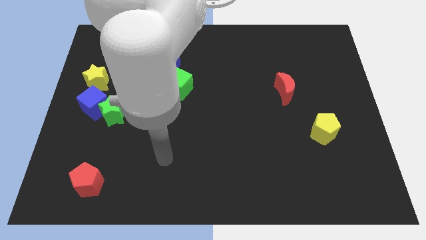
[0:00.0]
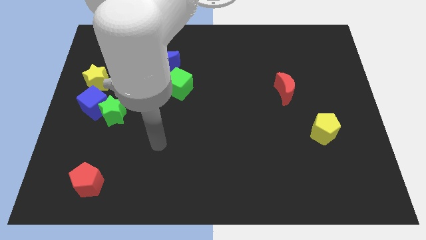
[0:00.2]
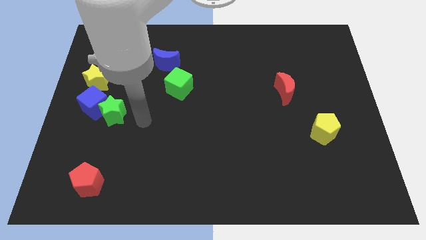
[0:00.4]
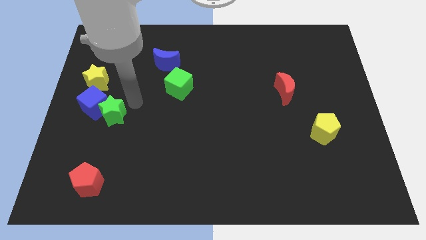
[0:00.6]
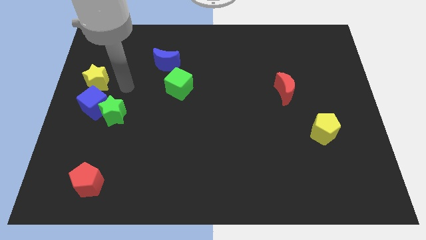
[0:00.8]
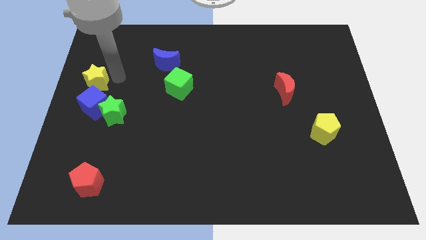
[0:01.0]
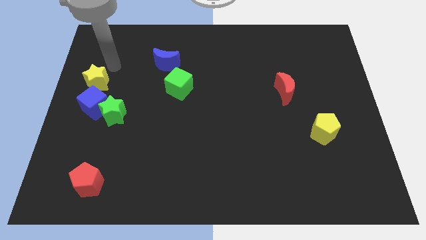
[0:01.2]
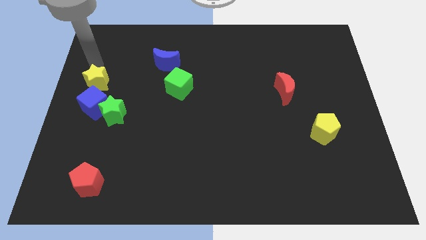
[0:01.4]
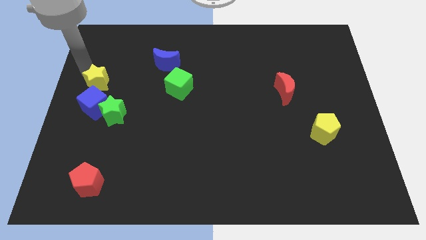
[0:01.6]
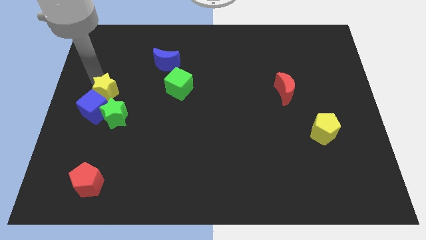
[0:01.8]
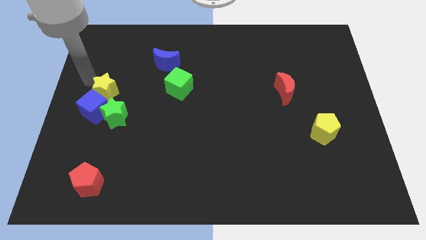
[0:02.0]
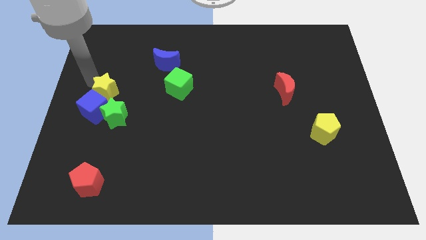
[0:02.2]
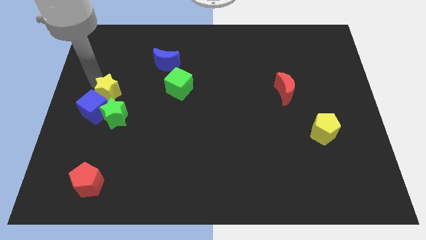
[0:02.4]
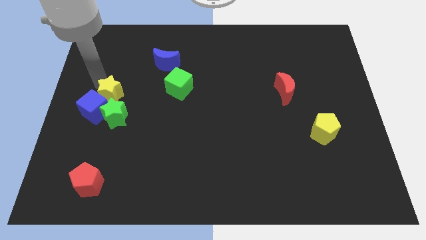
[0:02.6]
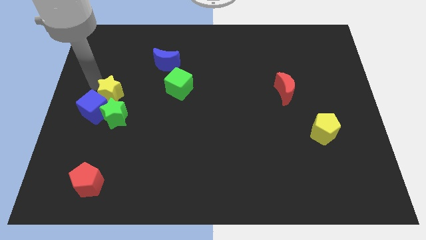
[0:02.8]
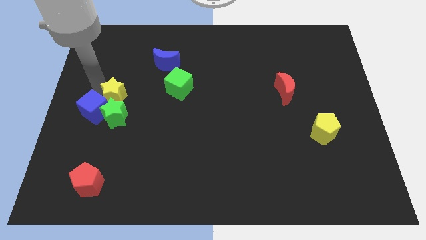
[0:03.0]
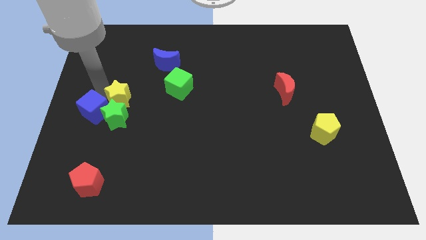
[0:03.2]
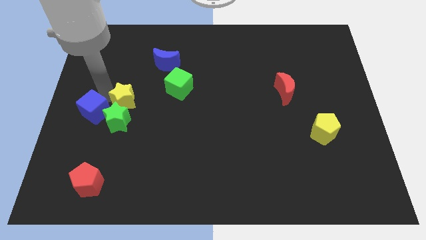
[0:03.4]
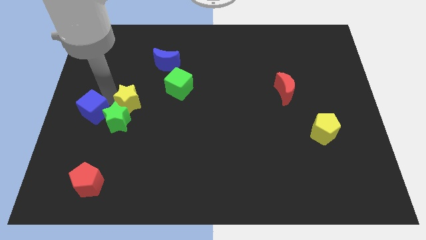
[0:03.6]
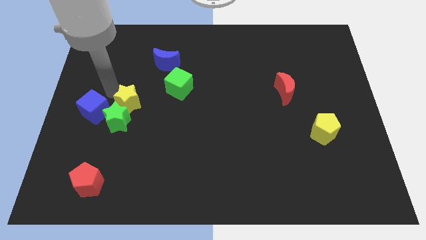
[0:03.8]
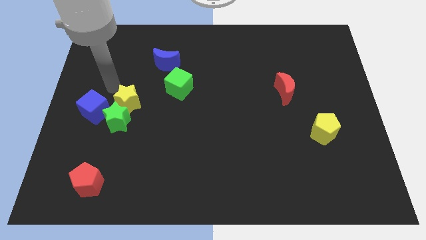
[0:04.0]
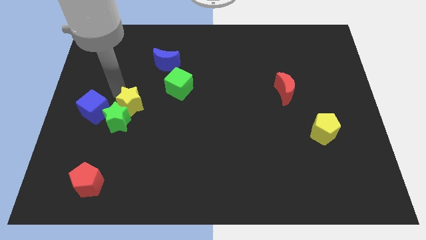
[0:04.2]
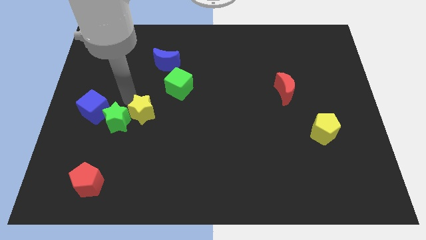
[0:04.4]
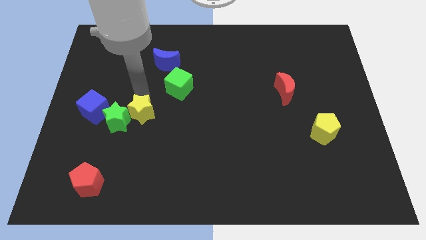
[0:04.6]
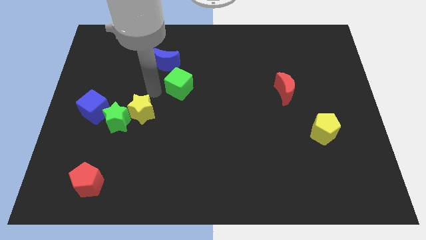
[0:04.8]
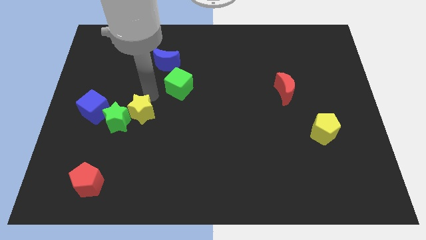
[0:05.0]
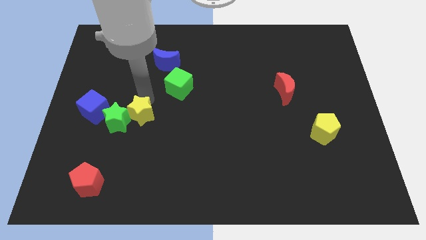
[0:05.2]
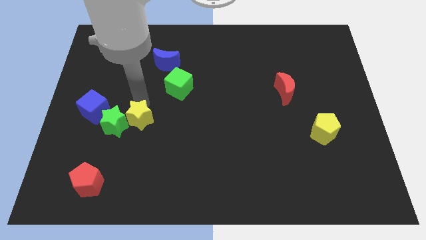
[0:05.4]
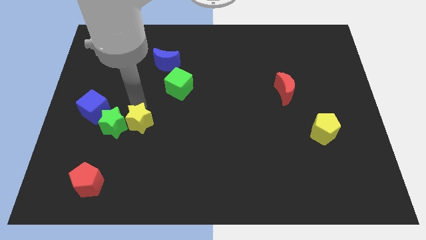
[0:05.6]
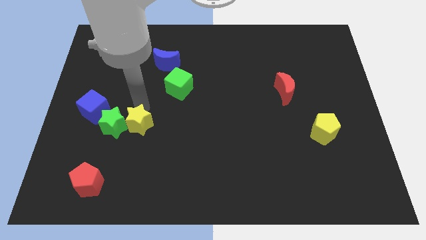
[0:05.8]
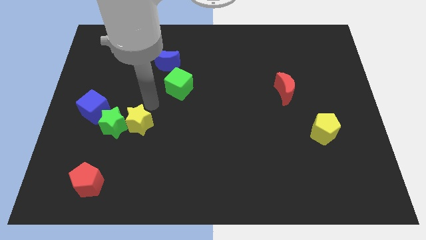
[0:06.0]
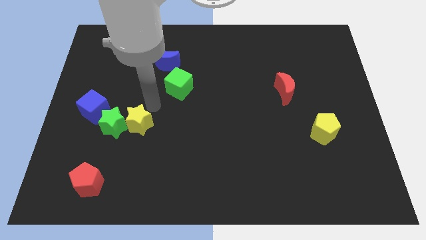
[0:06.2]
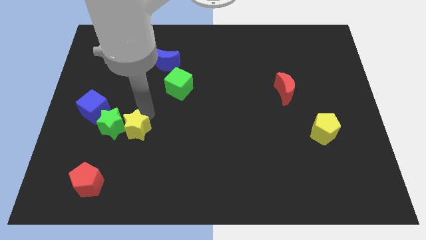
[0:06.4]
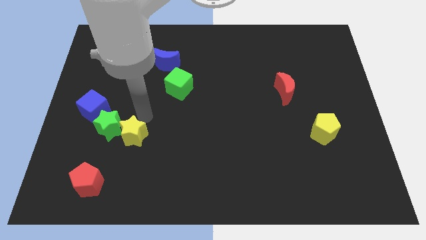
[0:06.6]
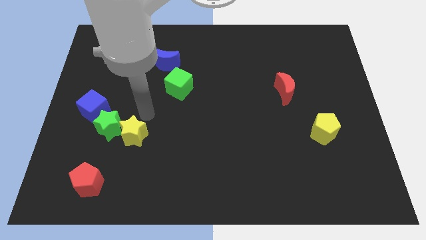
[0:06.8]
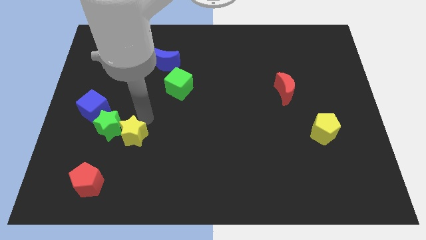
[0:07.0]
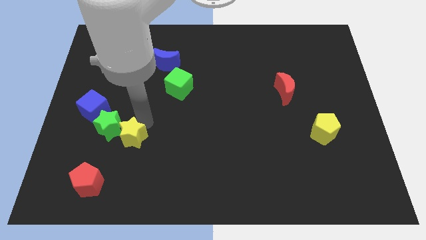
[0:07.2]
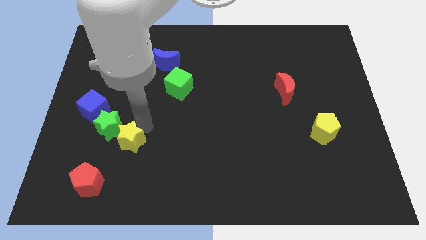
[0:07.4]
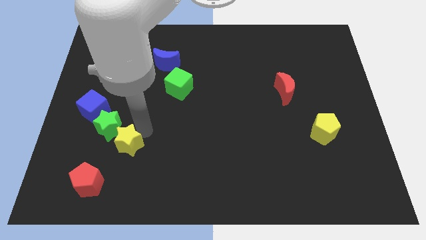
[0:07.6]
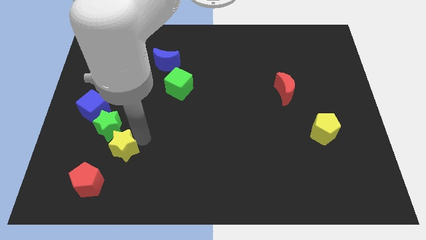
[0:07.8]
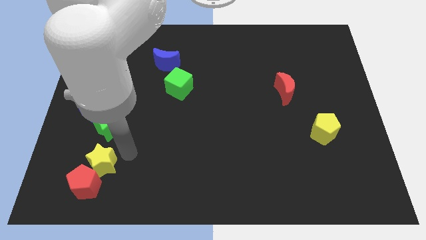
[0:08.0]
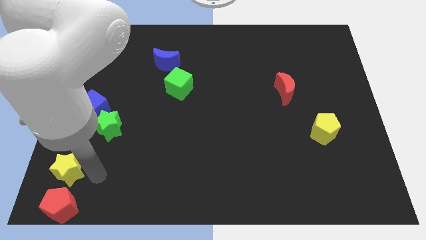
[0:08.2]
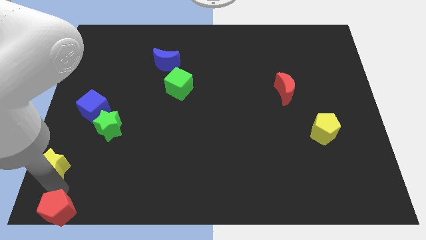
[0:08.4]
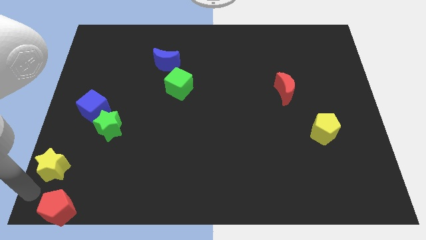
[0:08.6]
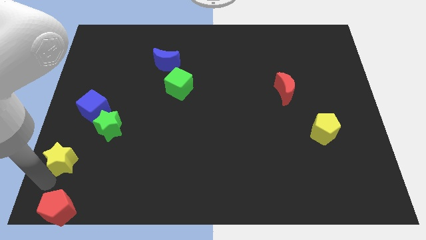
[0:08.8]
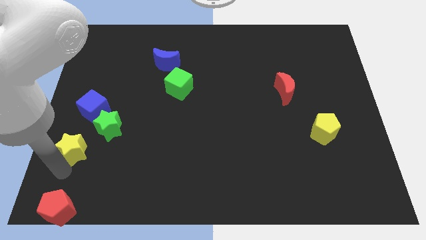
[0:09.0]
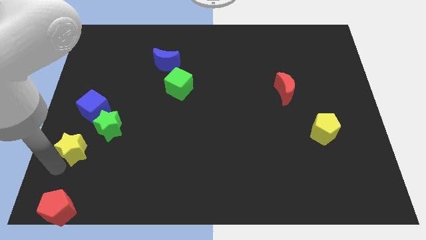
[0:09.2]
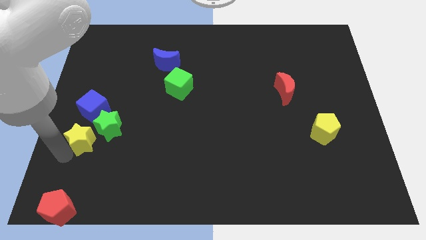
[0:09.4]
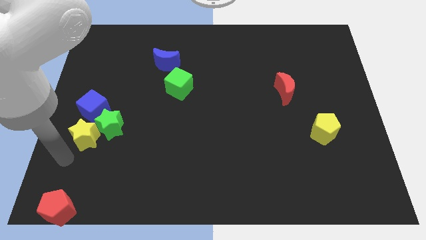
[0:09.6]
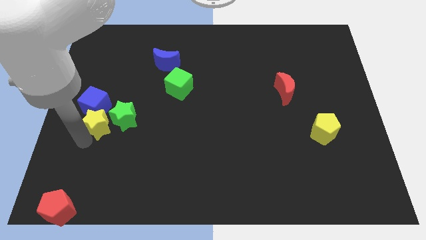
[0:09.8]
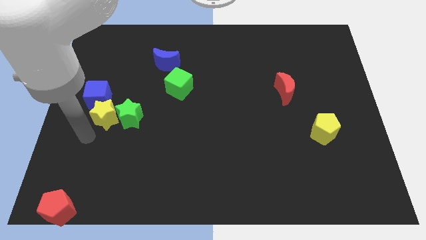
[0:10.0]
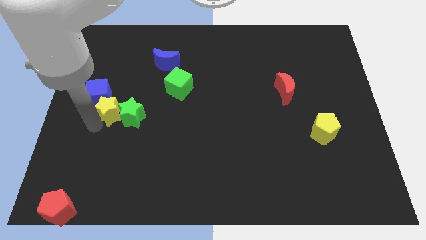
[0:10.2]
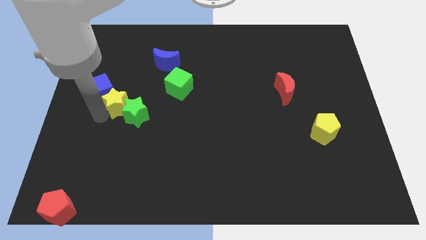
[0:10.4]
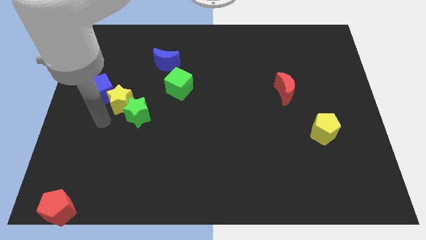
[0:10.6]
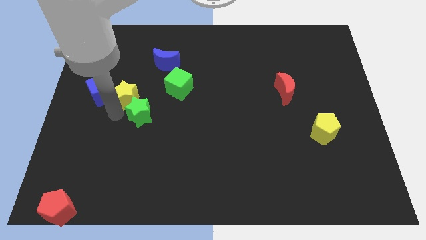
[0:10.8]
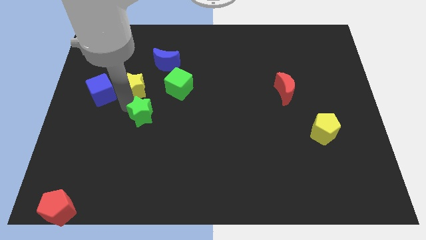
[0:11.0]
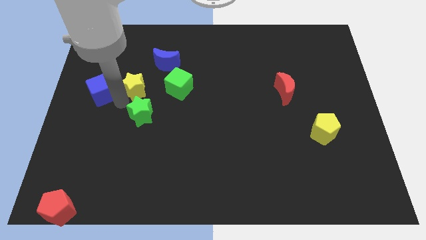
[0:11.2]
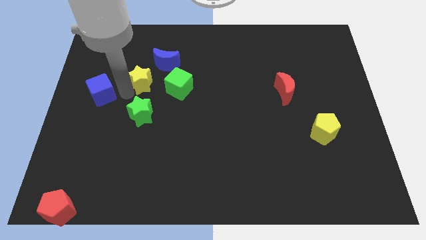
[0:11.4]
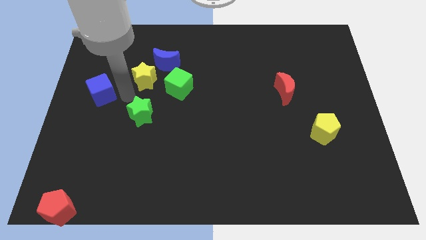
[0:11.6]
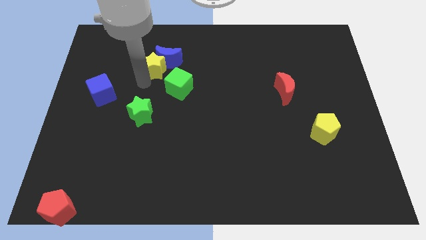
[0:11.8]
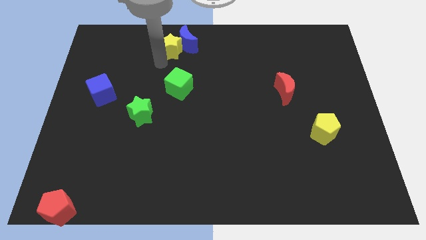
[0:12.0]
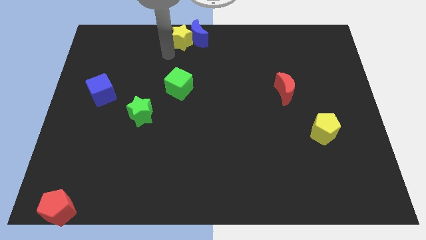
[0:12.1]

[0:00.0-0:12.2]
slide the yellow star to the top side
